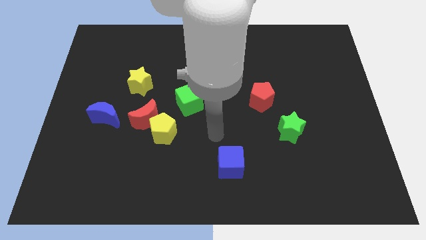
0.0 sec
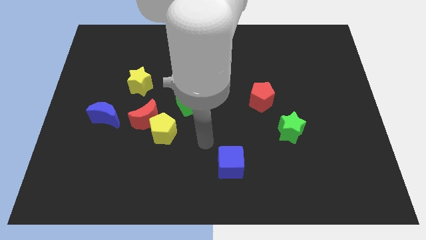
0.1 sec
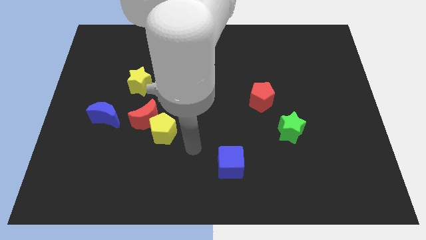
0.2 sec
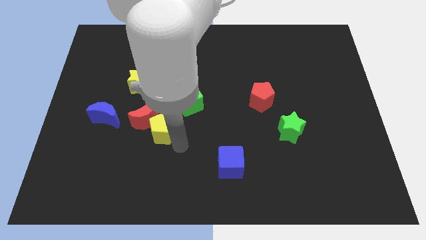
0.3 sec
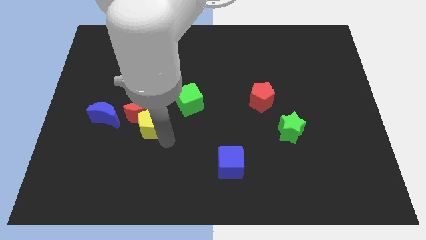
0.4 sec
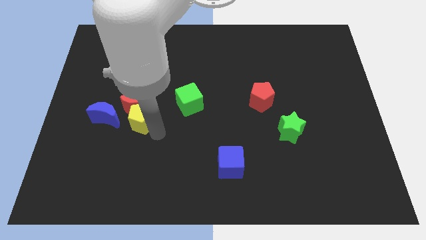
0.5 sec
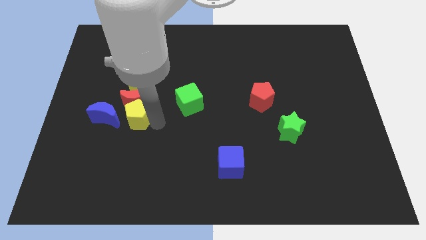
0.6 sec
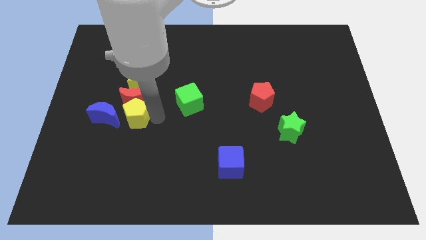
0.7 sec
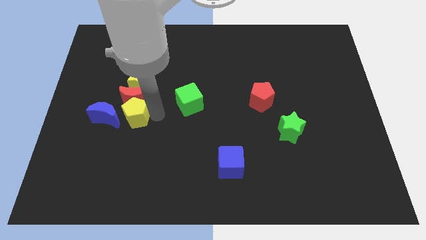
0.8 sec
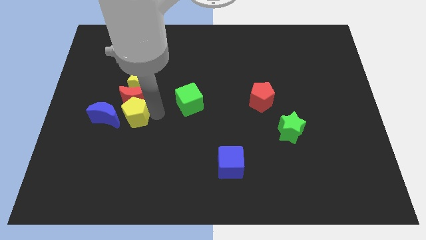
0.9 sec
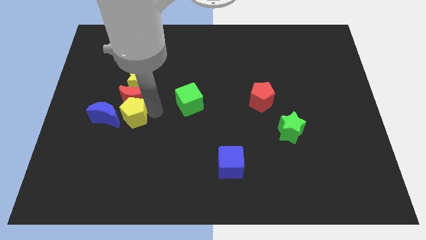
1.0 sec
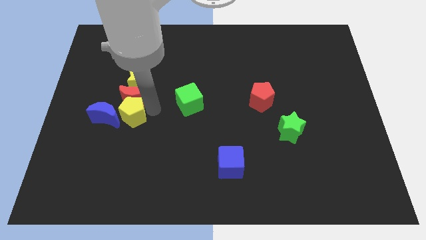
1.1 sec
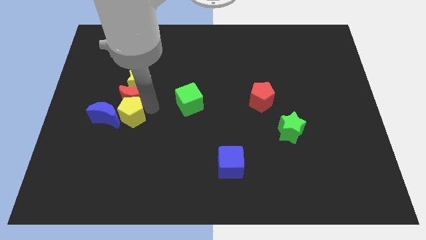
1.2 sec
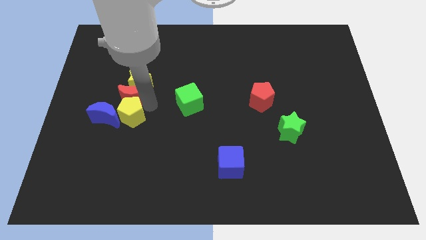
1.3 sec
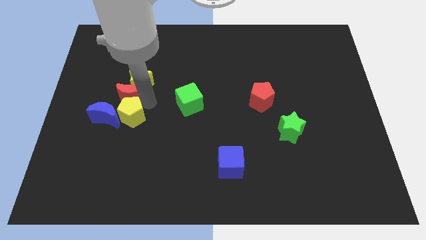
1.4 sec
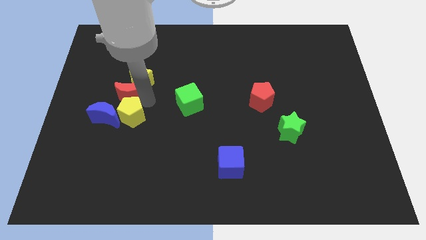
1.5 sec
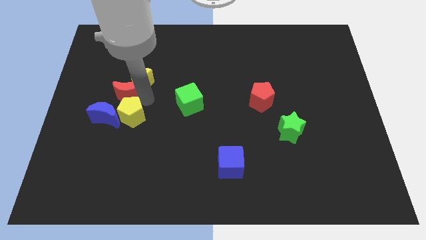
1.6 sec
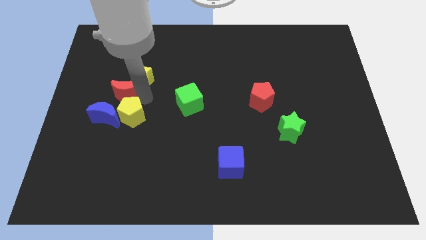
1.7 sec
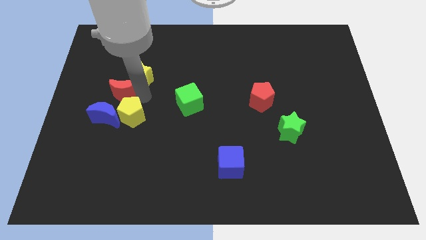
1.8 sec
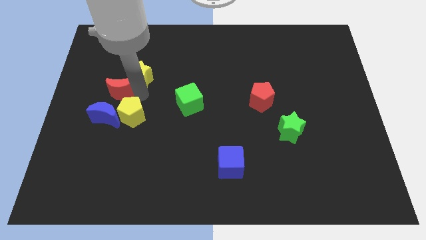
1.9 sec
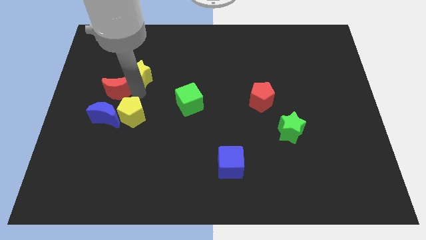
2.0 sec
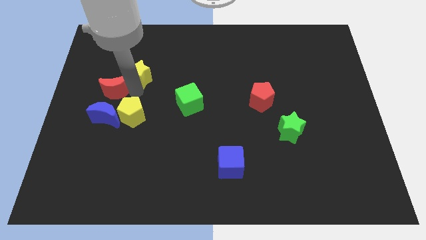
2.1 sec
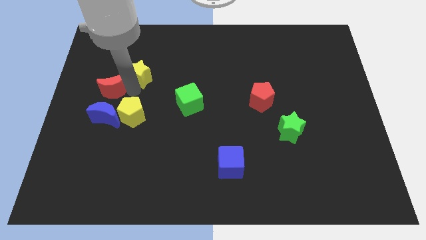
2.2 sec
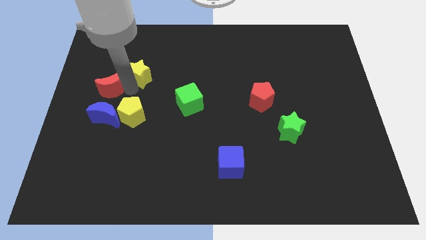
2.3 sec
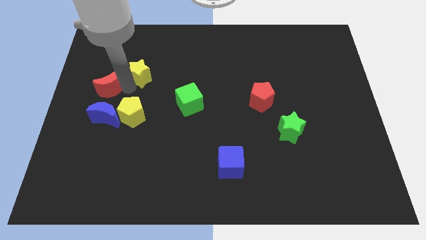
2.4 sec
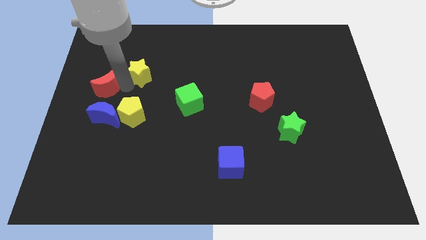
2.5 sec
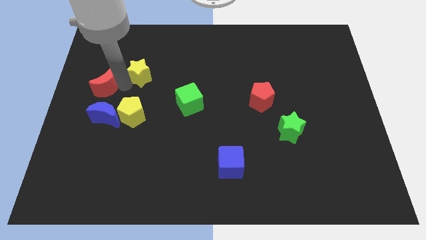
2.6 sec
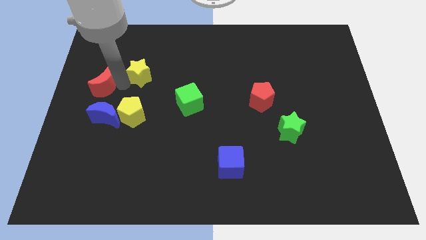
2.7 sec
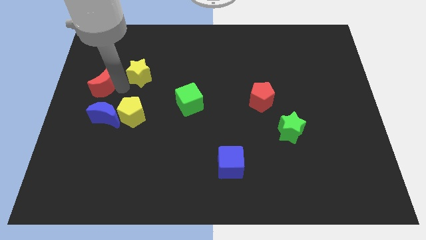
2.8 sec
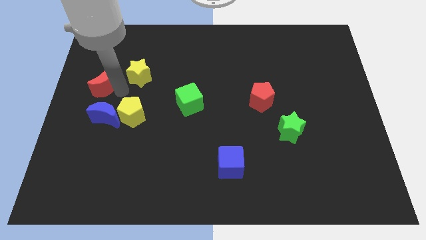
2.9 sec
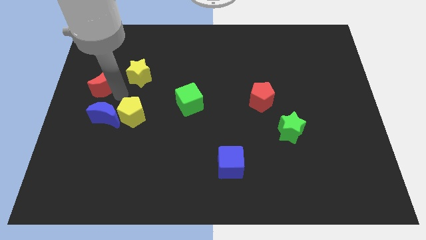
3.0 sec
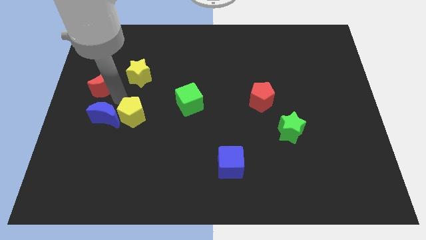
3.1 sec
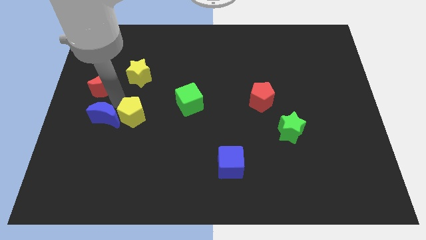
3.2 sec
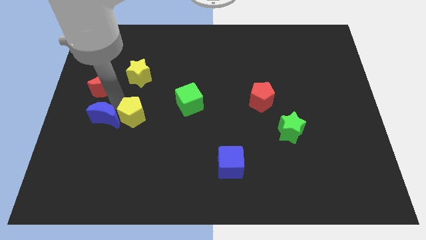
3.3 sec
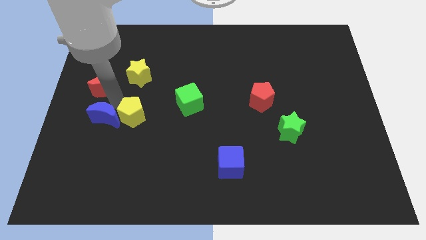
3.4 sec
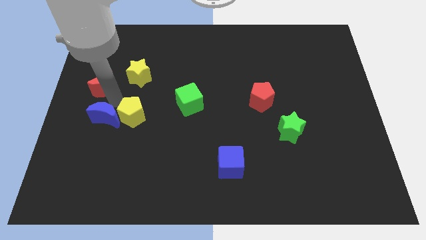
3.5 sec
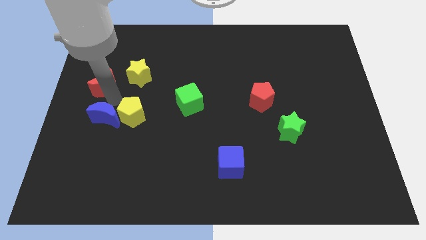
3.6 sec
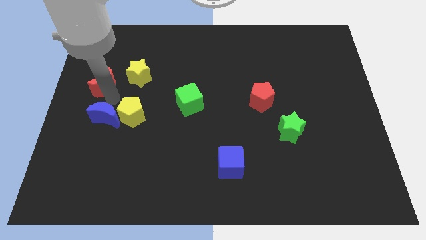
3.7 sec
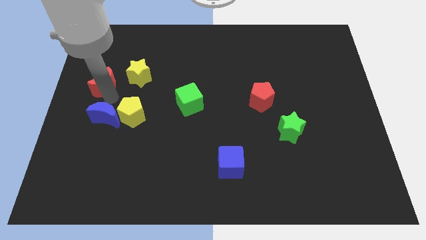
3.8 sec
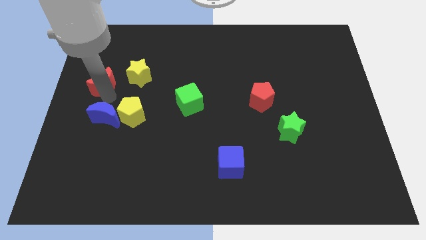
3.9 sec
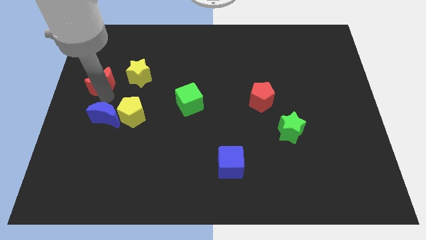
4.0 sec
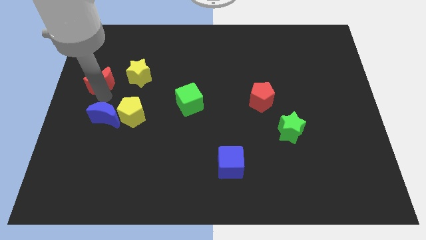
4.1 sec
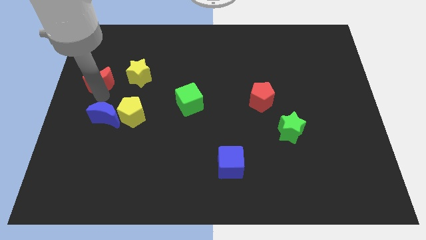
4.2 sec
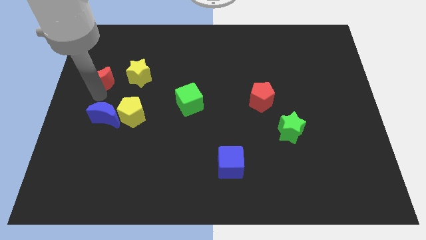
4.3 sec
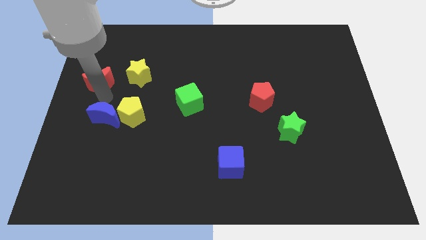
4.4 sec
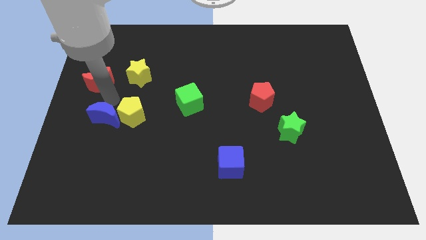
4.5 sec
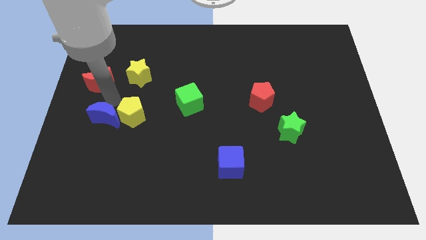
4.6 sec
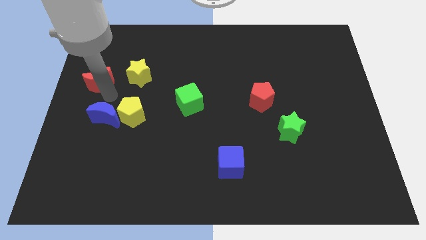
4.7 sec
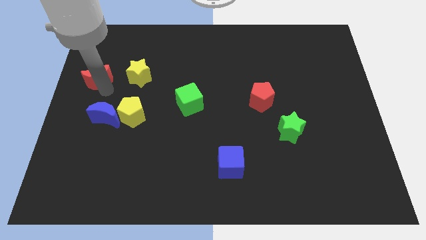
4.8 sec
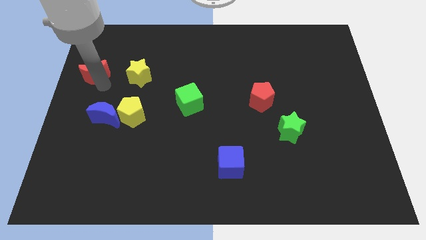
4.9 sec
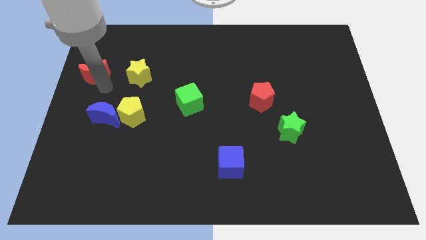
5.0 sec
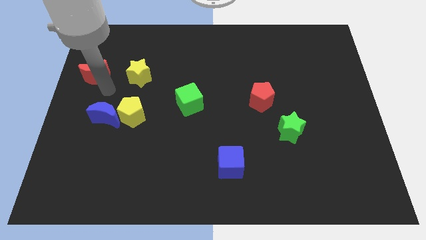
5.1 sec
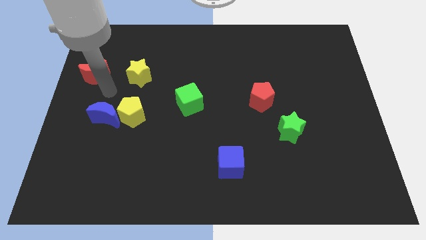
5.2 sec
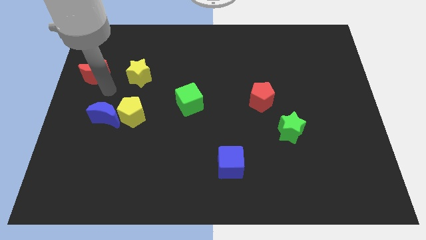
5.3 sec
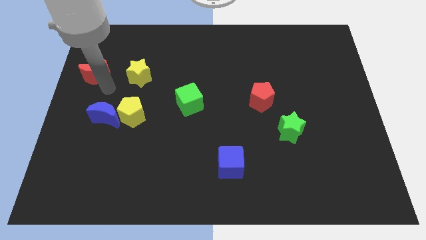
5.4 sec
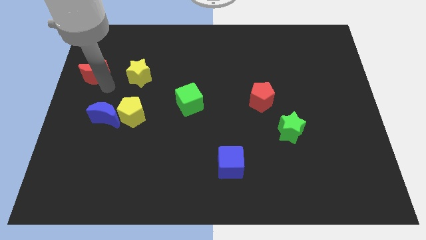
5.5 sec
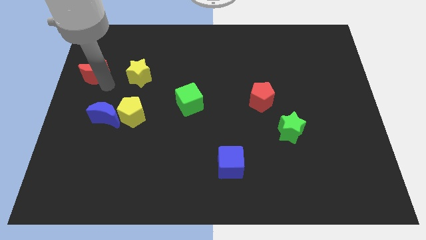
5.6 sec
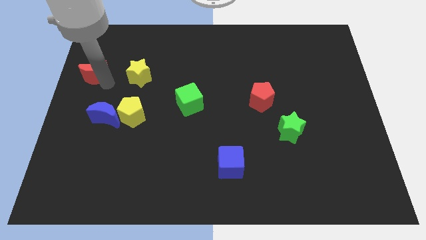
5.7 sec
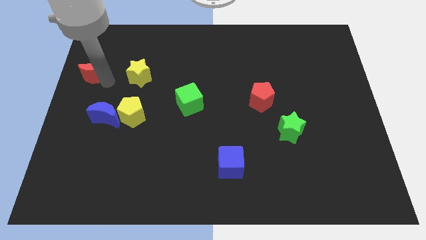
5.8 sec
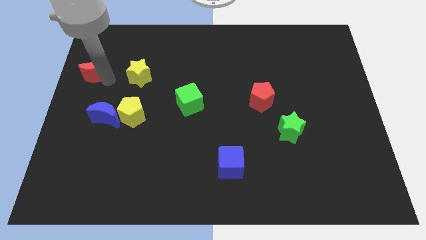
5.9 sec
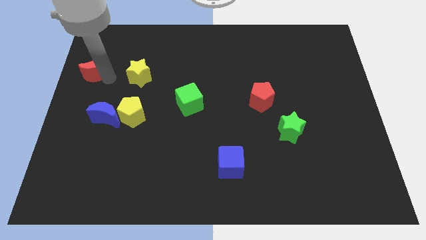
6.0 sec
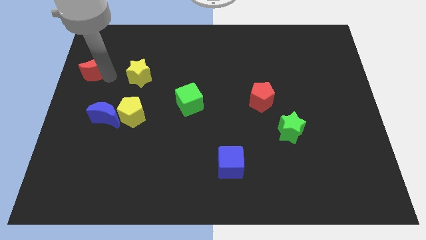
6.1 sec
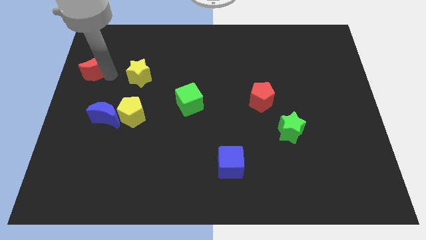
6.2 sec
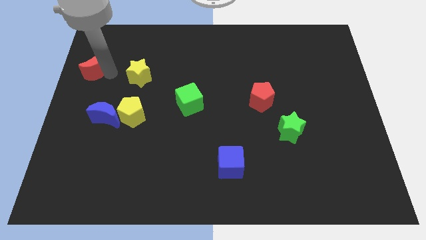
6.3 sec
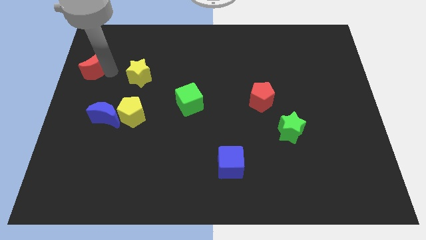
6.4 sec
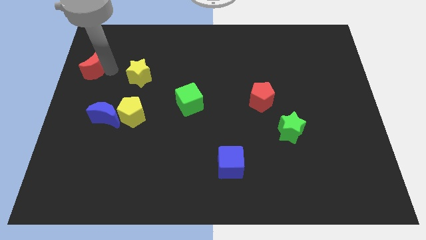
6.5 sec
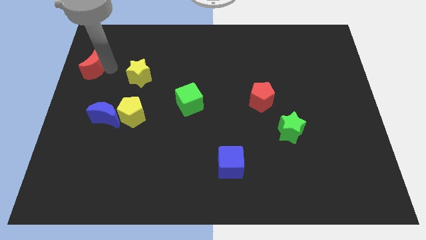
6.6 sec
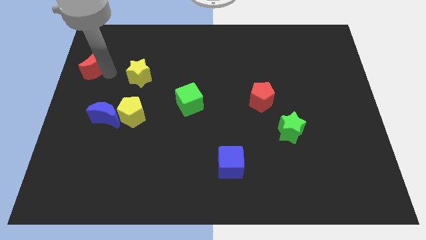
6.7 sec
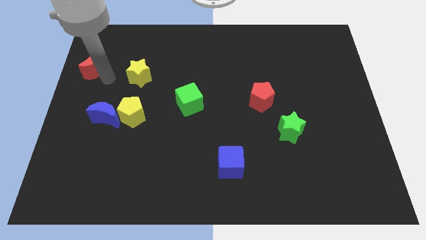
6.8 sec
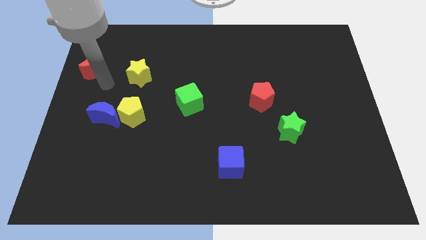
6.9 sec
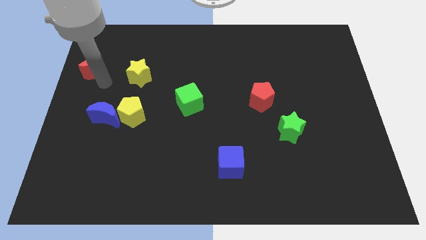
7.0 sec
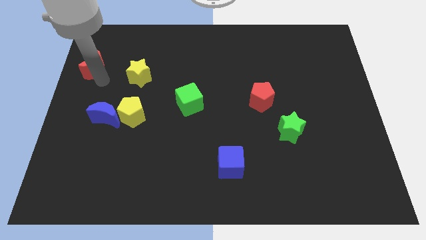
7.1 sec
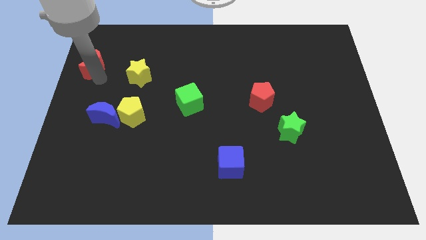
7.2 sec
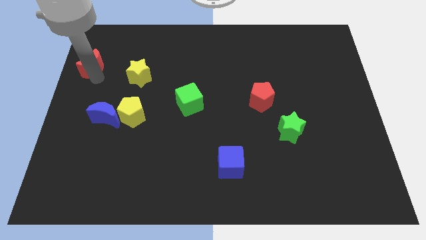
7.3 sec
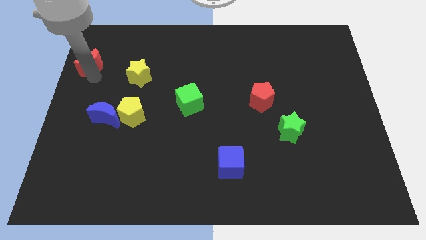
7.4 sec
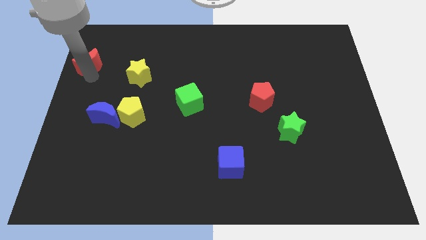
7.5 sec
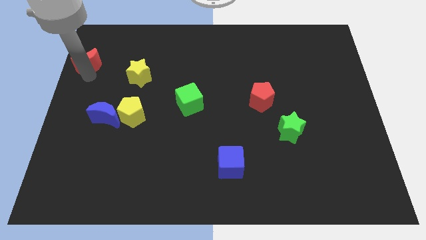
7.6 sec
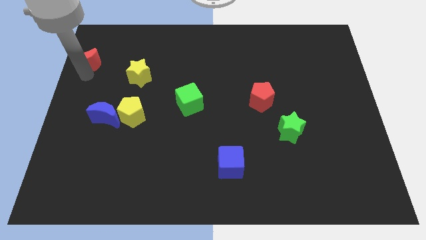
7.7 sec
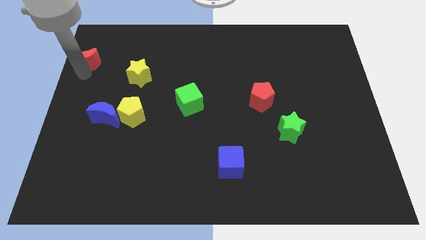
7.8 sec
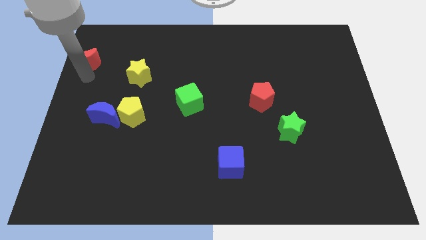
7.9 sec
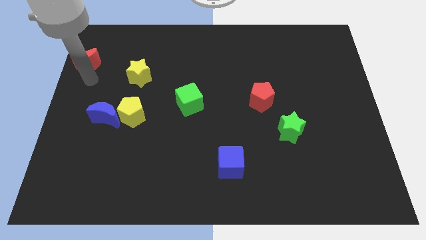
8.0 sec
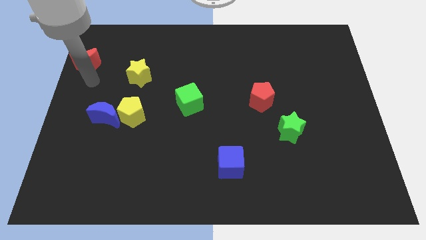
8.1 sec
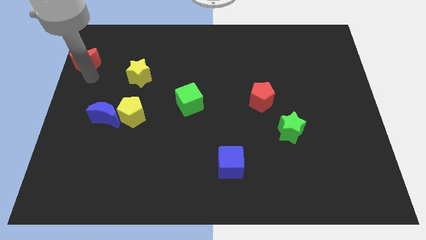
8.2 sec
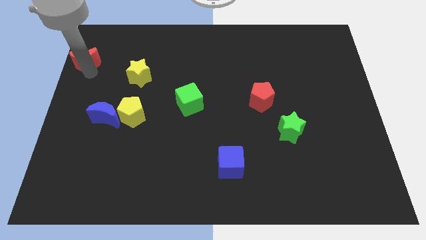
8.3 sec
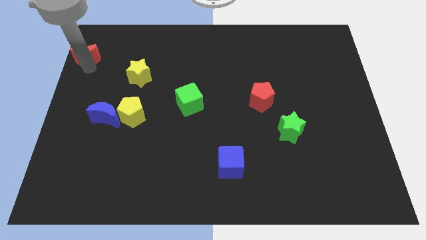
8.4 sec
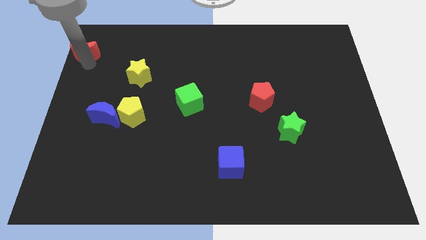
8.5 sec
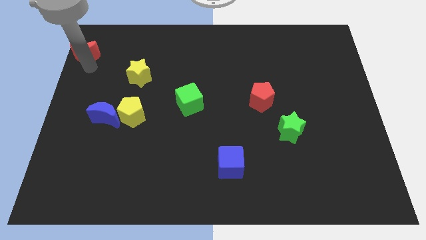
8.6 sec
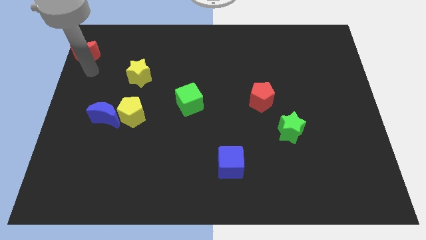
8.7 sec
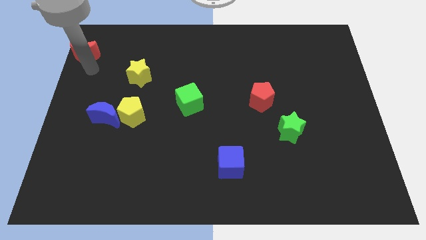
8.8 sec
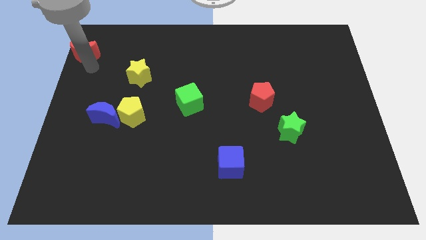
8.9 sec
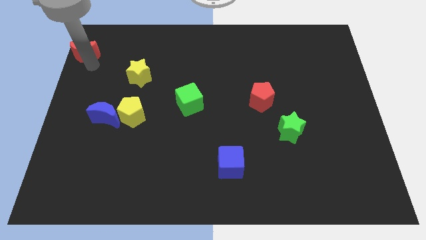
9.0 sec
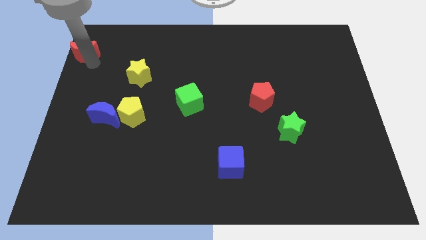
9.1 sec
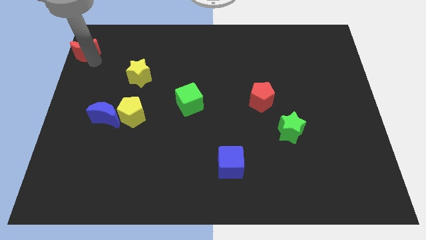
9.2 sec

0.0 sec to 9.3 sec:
push the red moon to the top left of the board
